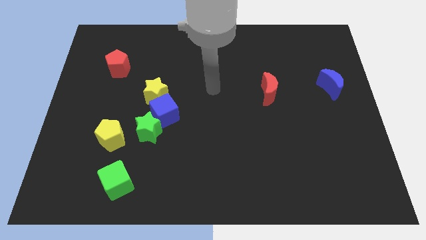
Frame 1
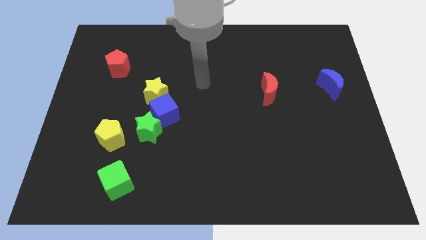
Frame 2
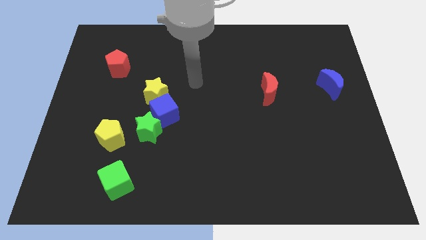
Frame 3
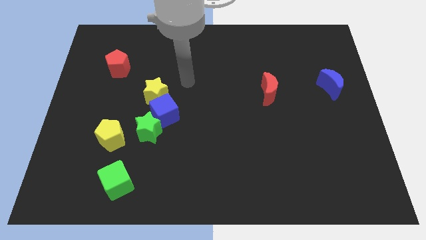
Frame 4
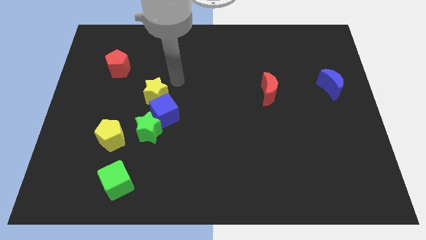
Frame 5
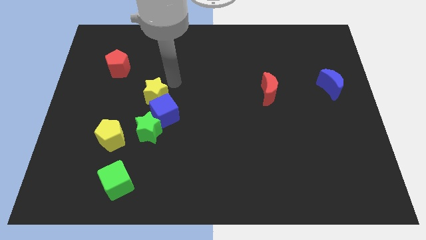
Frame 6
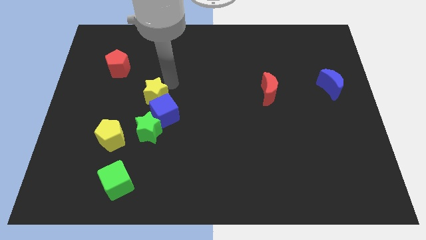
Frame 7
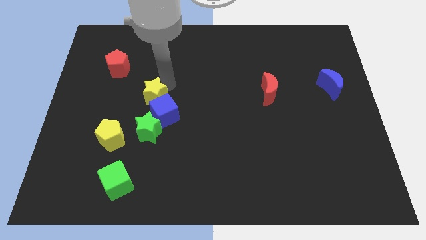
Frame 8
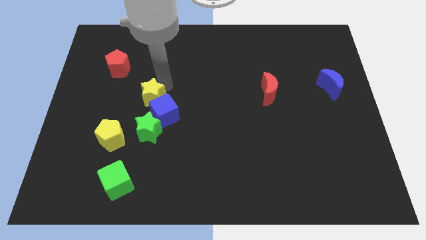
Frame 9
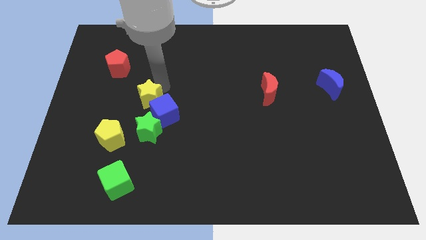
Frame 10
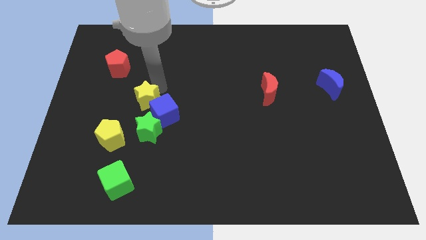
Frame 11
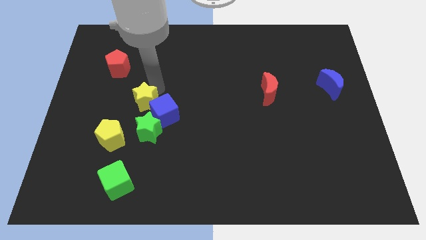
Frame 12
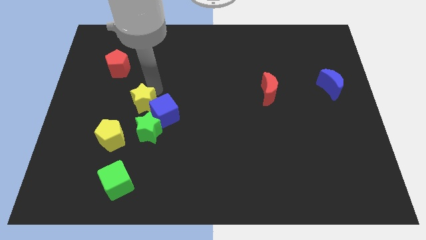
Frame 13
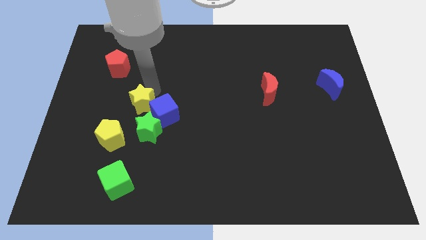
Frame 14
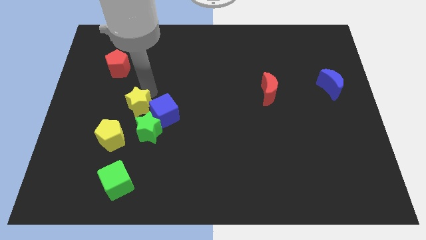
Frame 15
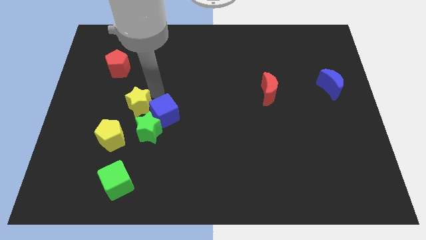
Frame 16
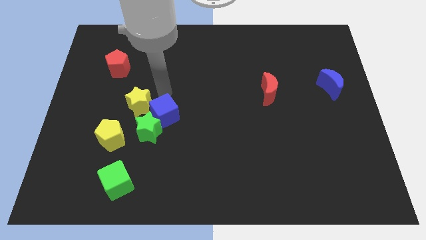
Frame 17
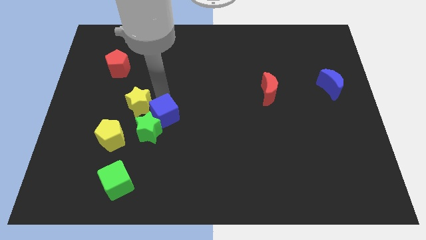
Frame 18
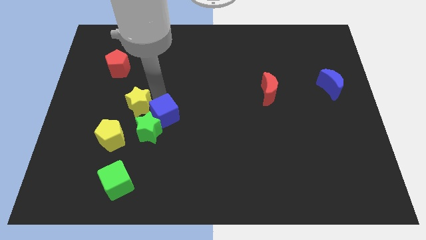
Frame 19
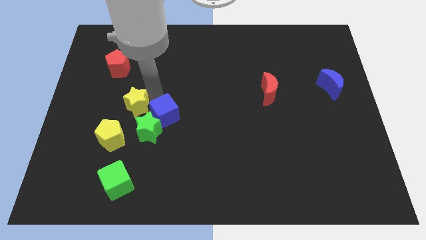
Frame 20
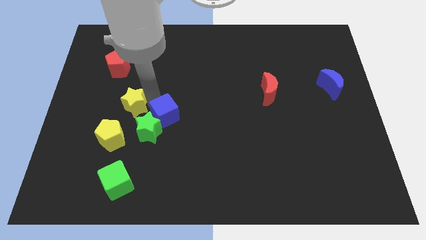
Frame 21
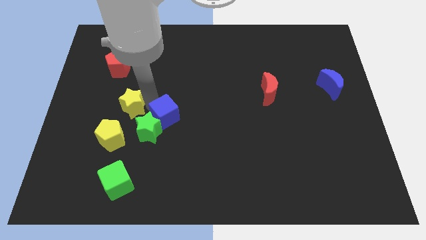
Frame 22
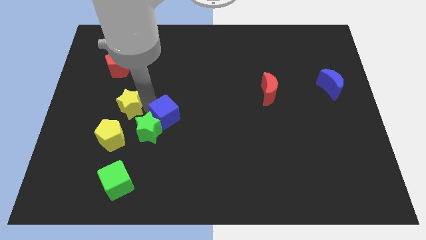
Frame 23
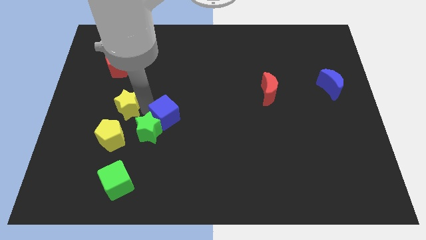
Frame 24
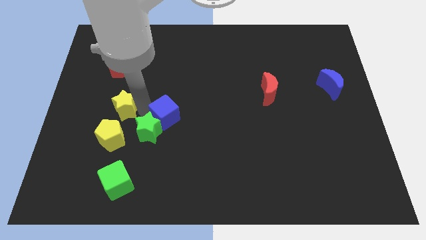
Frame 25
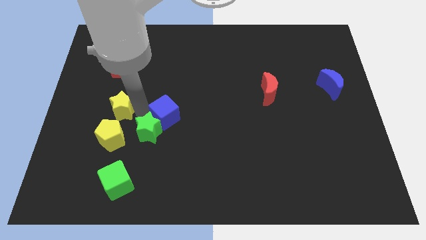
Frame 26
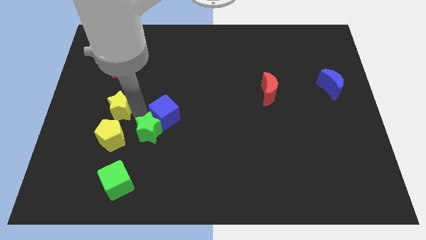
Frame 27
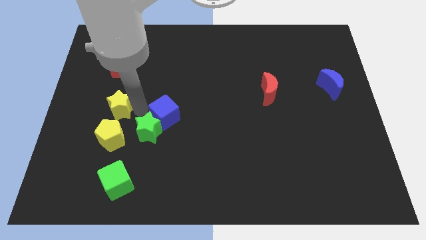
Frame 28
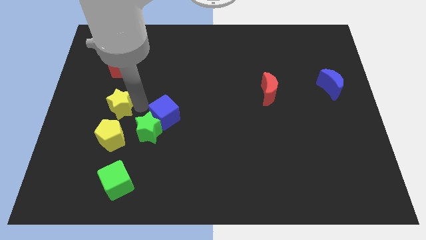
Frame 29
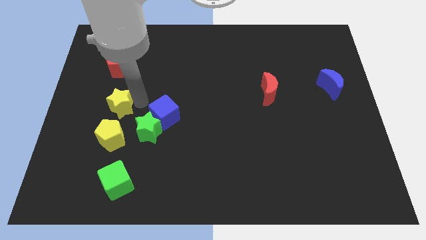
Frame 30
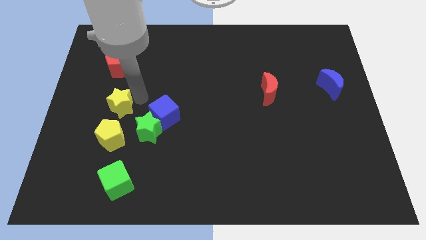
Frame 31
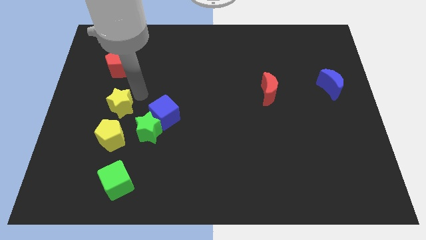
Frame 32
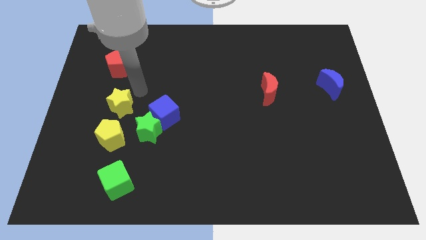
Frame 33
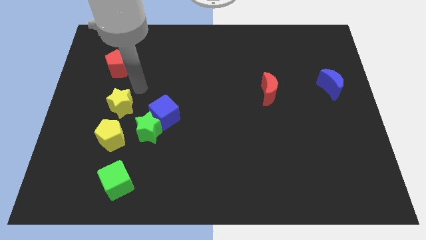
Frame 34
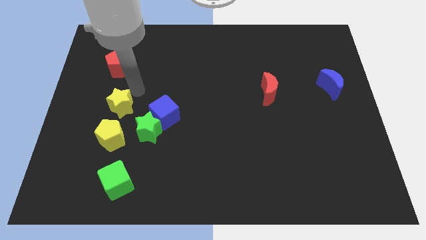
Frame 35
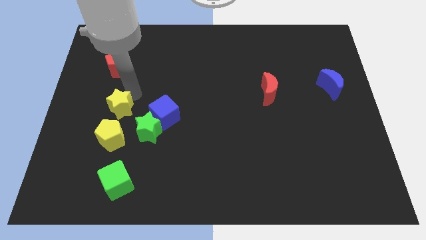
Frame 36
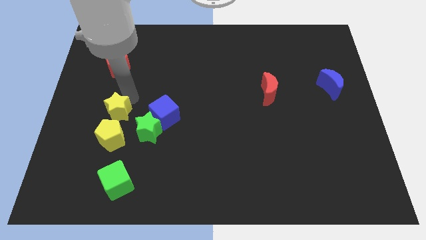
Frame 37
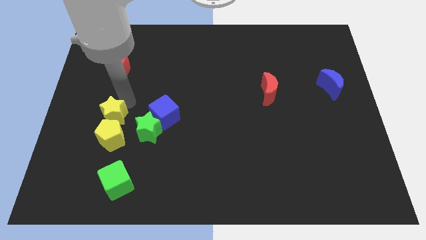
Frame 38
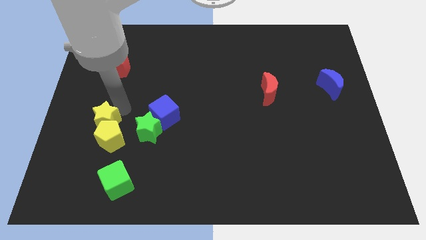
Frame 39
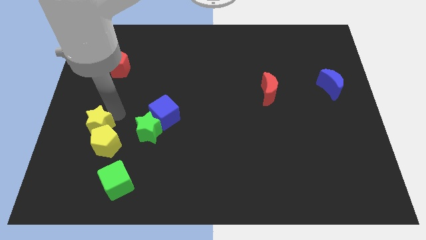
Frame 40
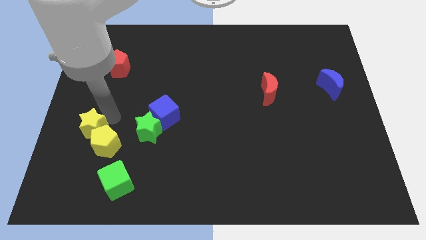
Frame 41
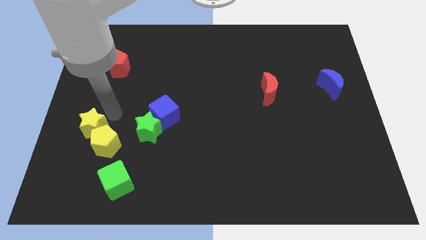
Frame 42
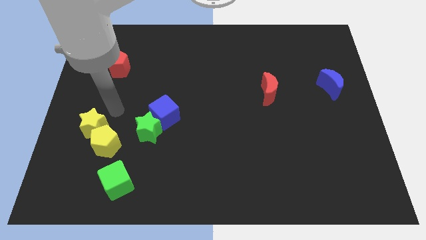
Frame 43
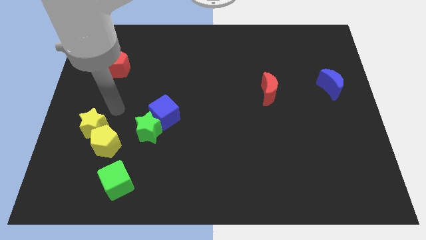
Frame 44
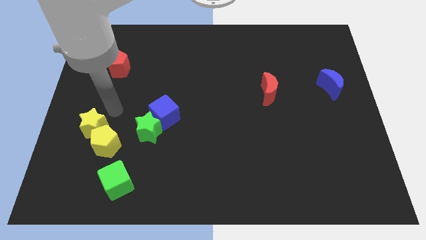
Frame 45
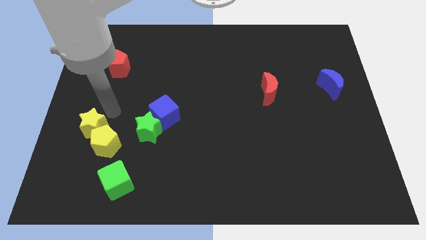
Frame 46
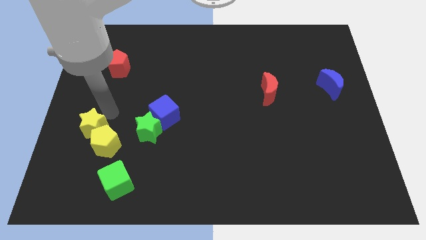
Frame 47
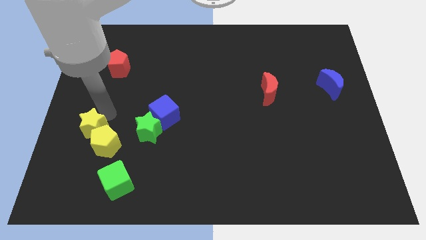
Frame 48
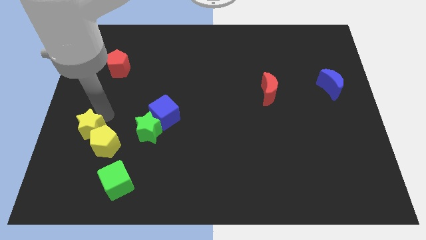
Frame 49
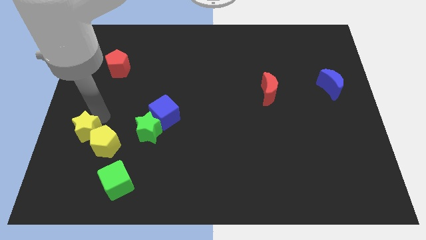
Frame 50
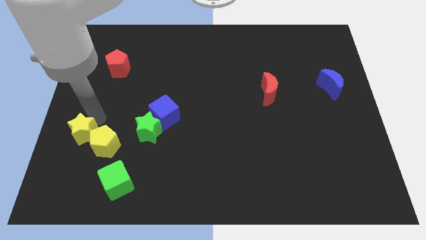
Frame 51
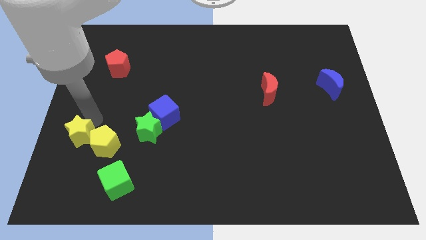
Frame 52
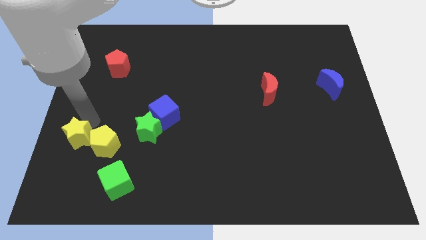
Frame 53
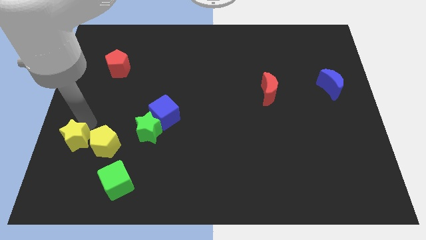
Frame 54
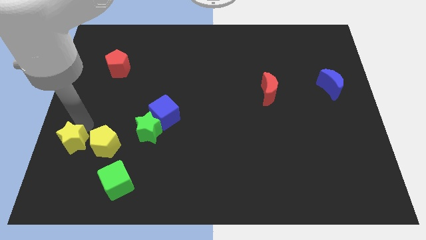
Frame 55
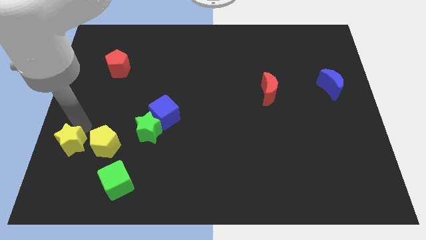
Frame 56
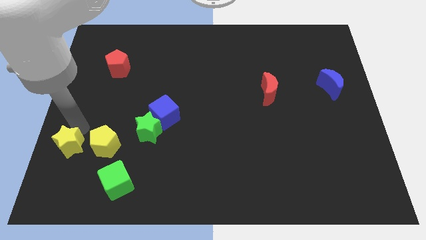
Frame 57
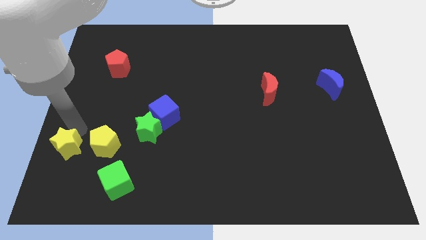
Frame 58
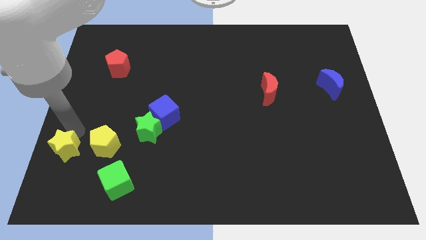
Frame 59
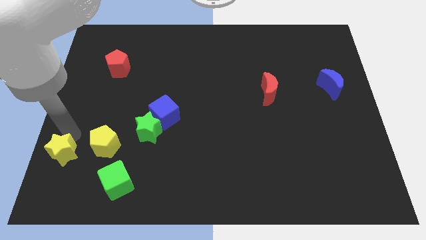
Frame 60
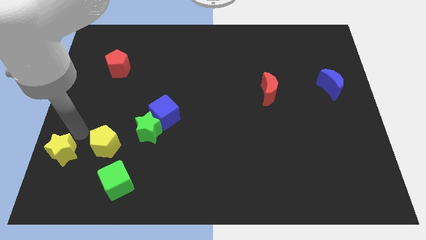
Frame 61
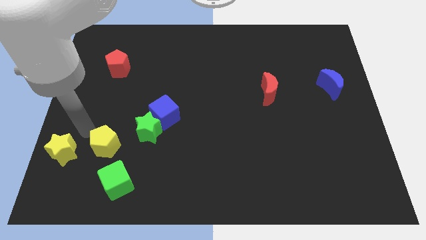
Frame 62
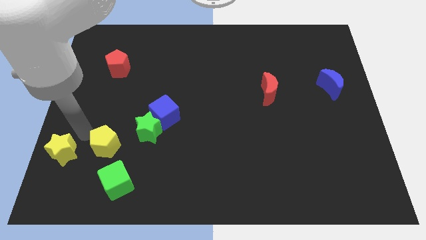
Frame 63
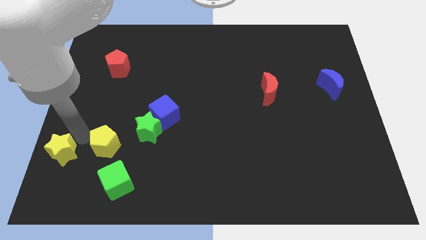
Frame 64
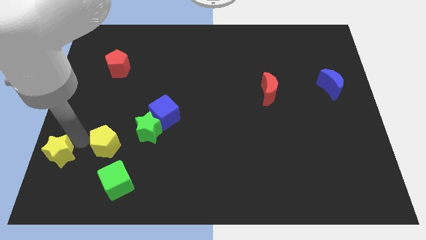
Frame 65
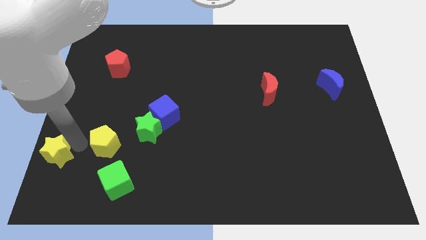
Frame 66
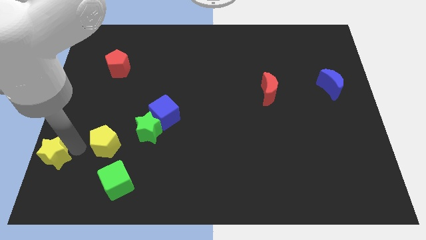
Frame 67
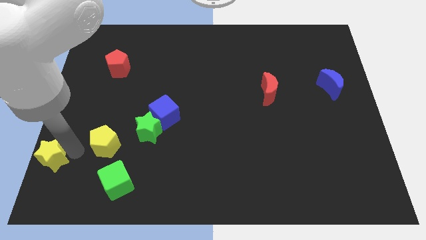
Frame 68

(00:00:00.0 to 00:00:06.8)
push the yellow star to the bottom left
